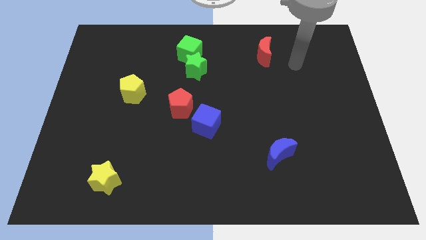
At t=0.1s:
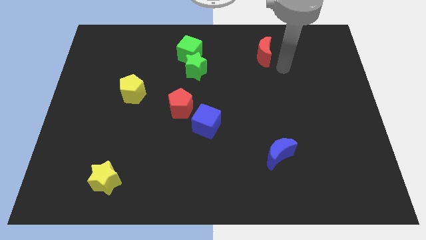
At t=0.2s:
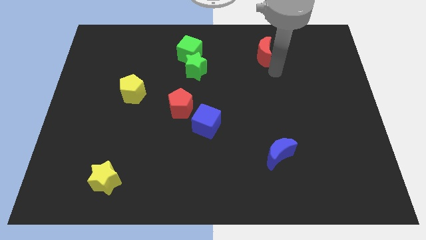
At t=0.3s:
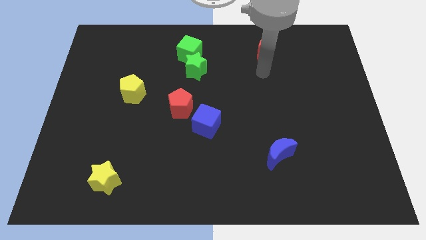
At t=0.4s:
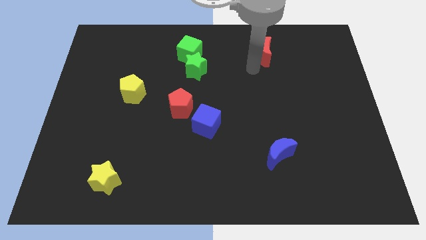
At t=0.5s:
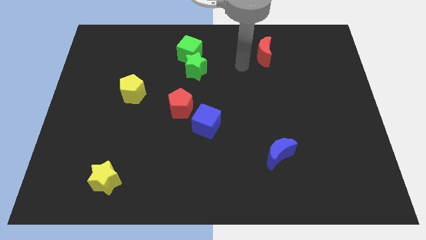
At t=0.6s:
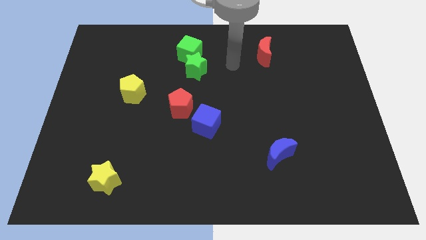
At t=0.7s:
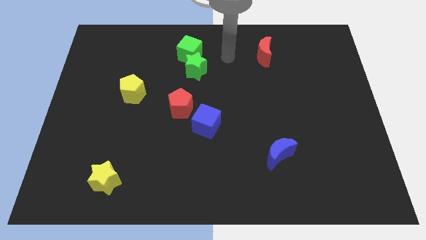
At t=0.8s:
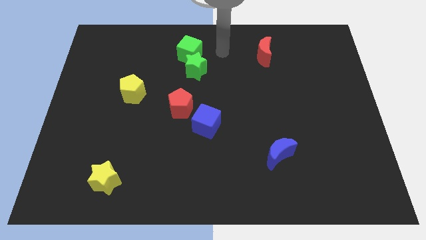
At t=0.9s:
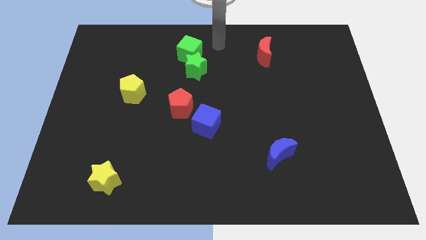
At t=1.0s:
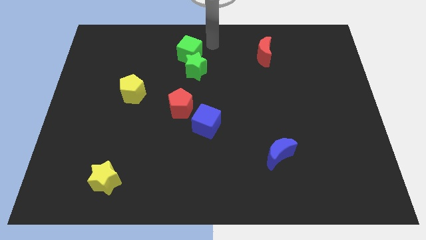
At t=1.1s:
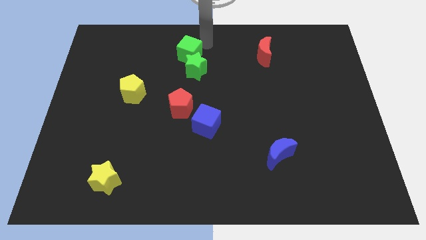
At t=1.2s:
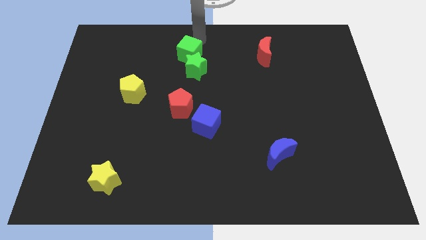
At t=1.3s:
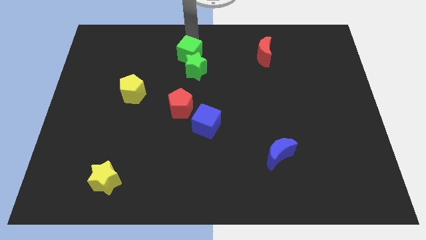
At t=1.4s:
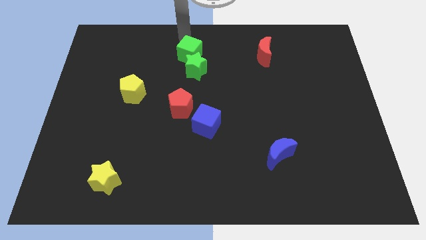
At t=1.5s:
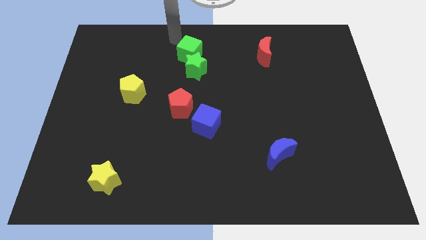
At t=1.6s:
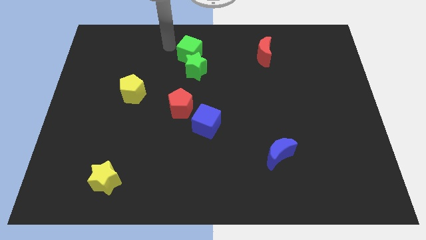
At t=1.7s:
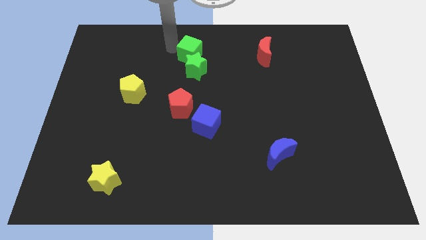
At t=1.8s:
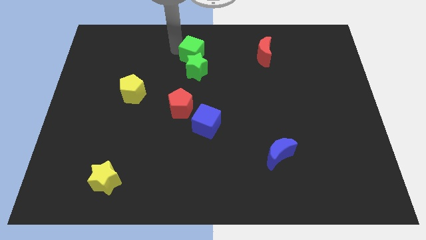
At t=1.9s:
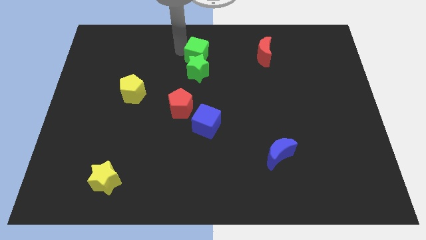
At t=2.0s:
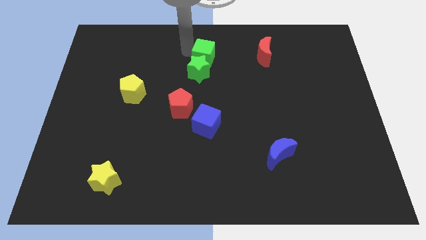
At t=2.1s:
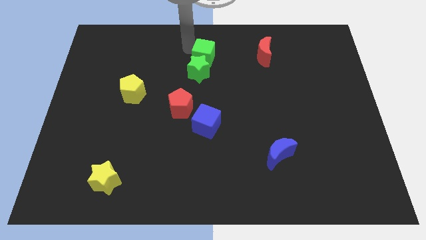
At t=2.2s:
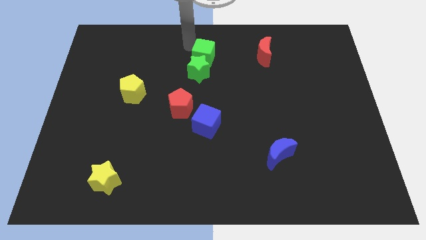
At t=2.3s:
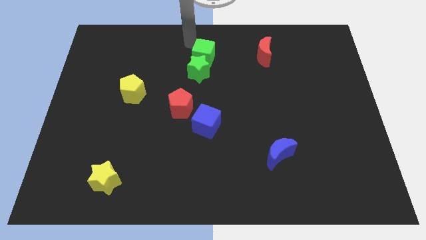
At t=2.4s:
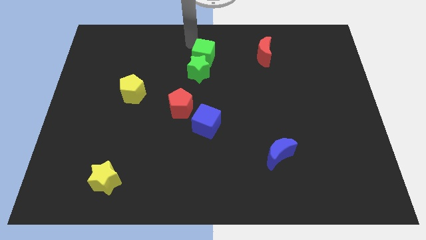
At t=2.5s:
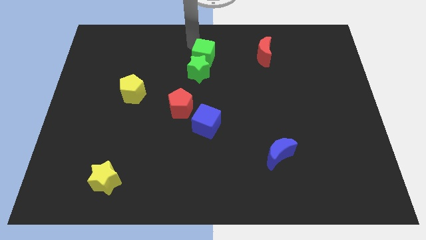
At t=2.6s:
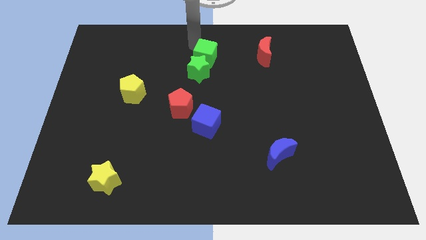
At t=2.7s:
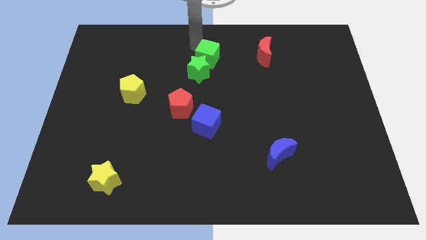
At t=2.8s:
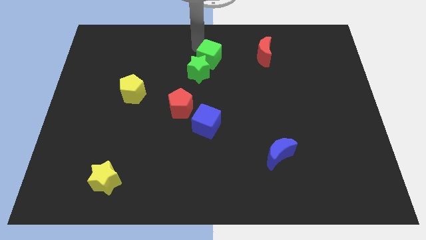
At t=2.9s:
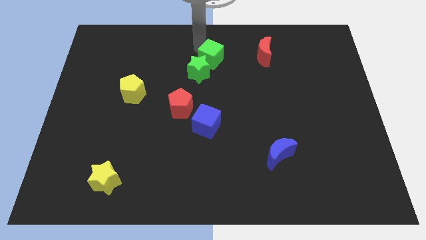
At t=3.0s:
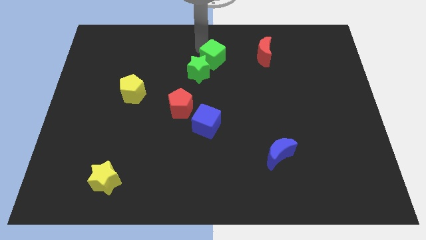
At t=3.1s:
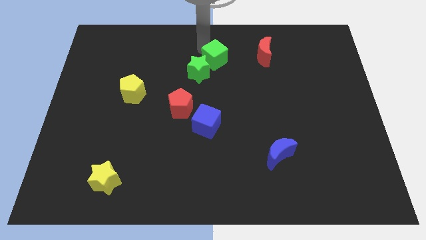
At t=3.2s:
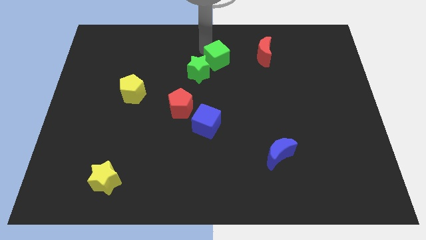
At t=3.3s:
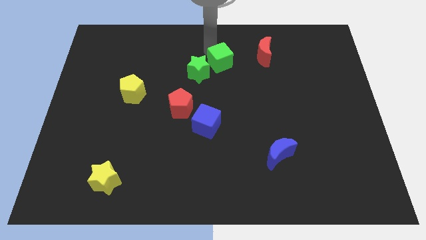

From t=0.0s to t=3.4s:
move the green cube a little downwards and then right

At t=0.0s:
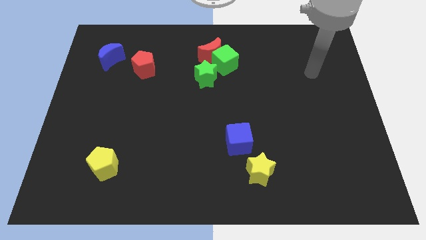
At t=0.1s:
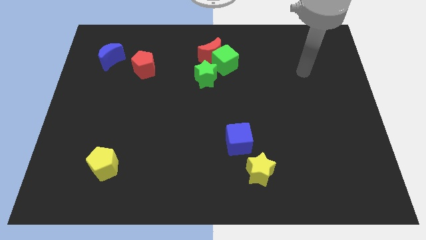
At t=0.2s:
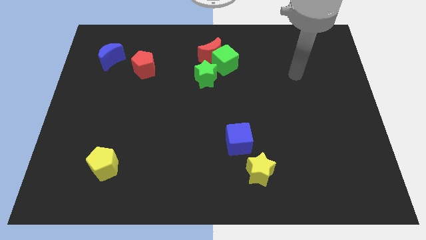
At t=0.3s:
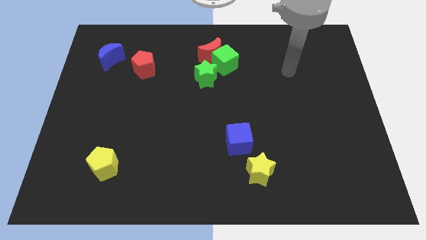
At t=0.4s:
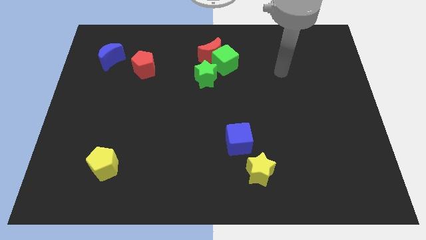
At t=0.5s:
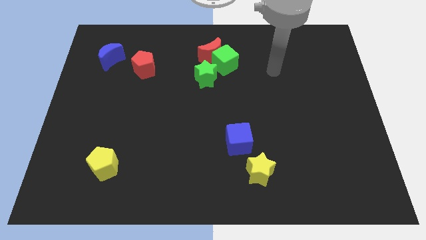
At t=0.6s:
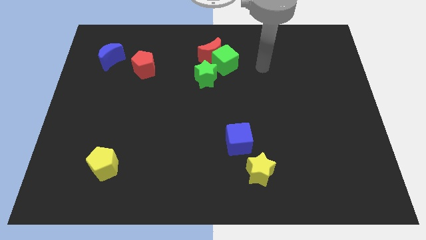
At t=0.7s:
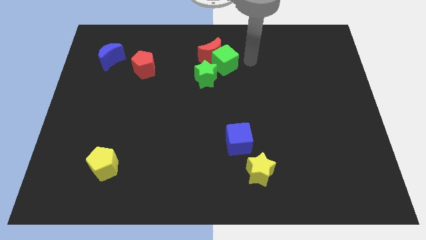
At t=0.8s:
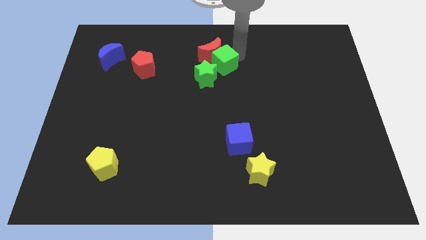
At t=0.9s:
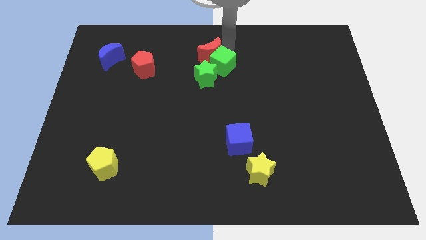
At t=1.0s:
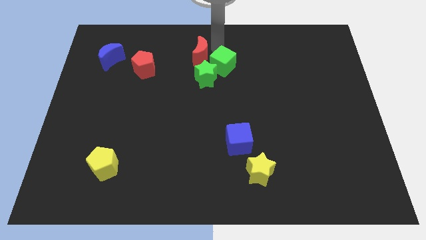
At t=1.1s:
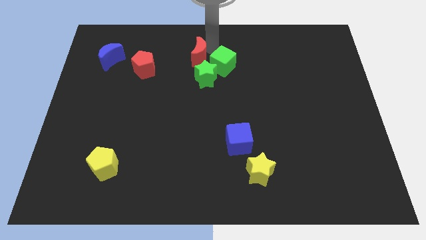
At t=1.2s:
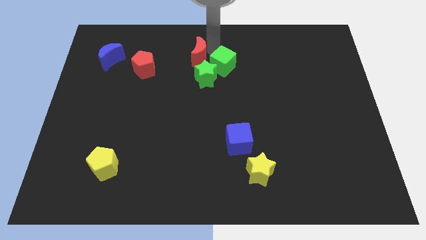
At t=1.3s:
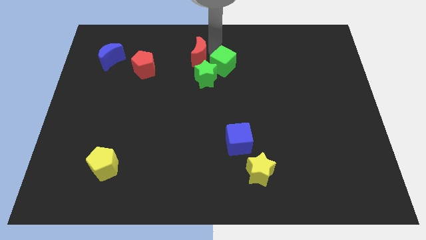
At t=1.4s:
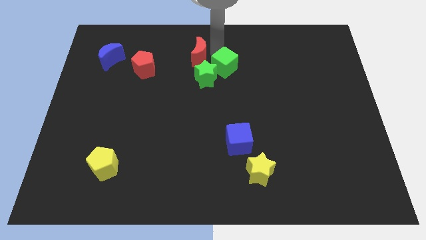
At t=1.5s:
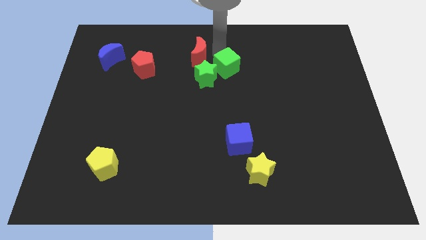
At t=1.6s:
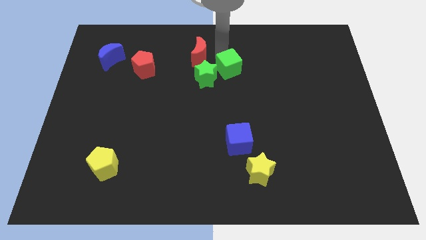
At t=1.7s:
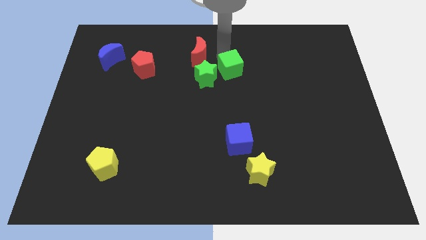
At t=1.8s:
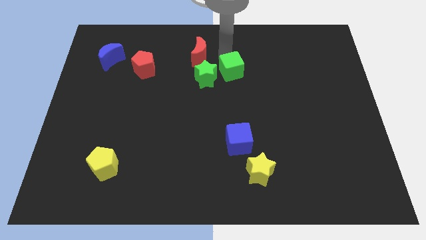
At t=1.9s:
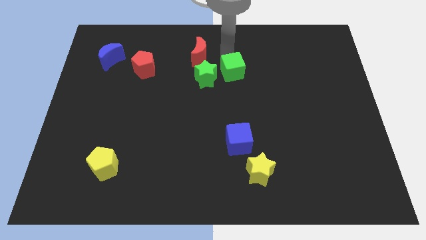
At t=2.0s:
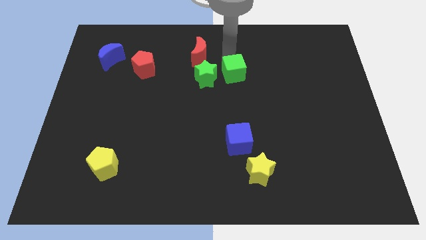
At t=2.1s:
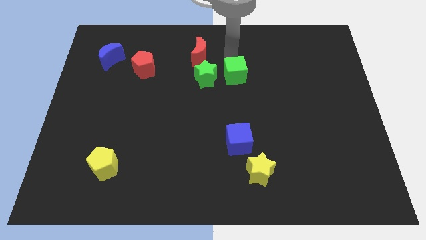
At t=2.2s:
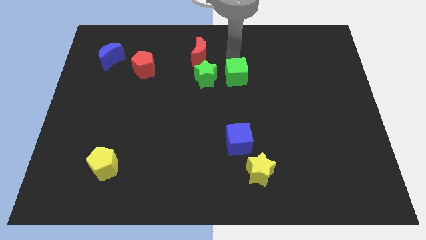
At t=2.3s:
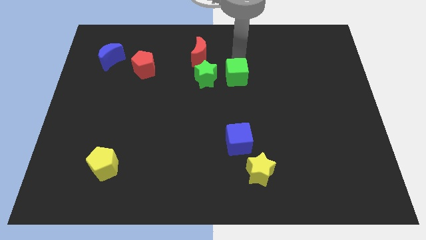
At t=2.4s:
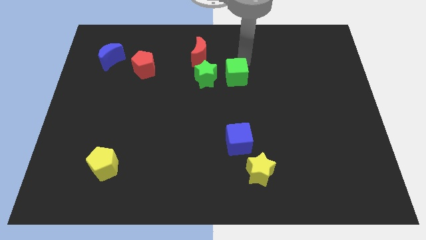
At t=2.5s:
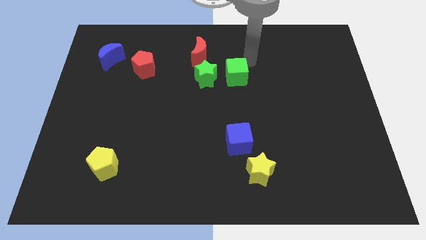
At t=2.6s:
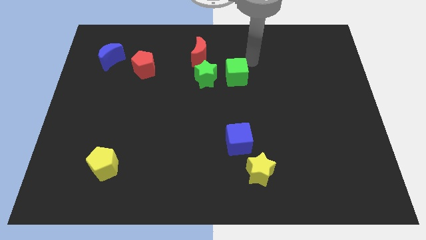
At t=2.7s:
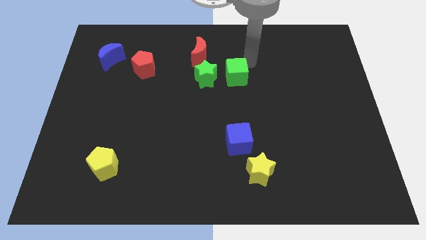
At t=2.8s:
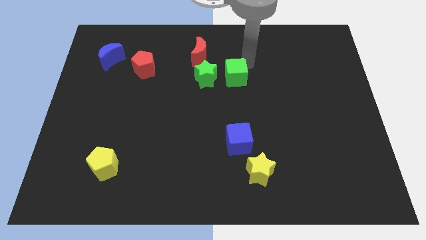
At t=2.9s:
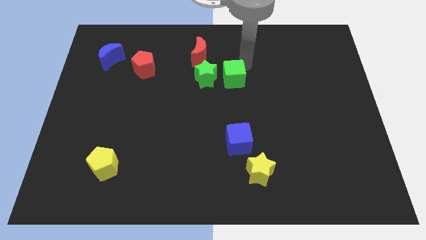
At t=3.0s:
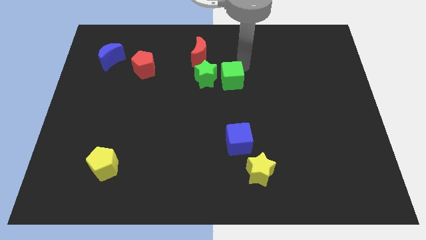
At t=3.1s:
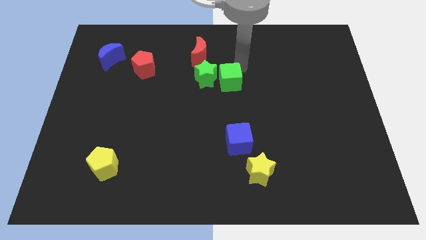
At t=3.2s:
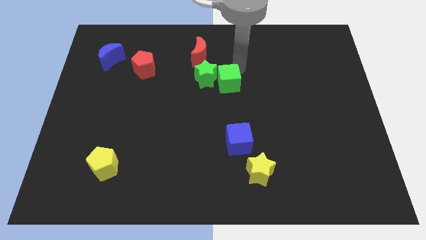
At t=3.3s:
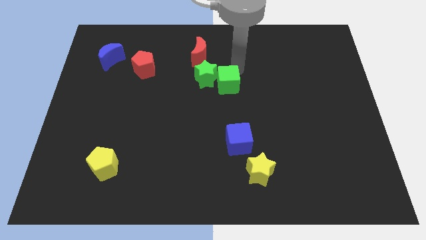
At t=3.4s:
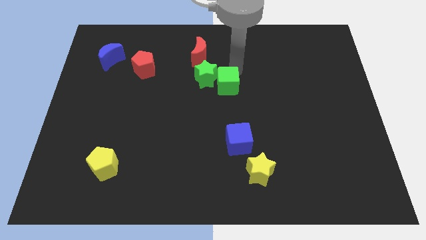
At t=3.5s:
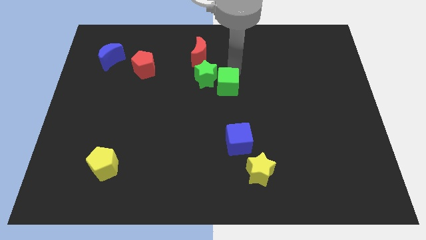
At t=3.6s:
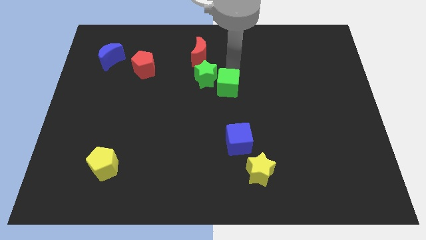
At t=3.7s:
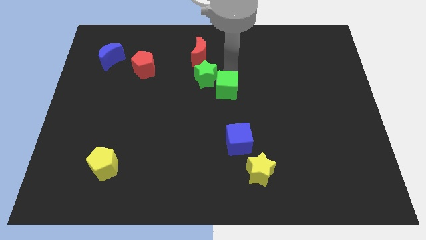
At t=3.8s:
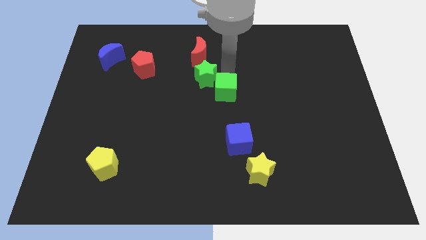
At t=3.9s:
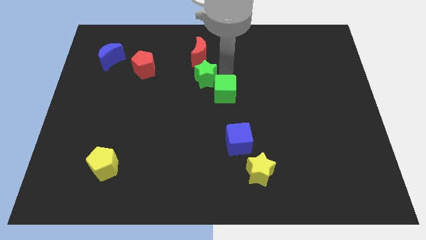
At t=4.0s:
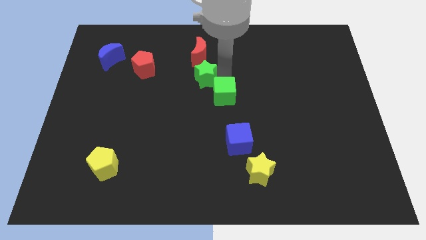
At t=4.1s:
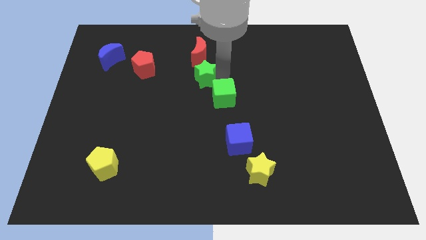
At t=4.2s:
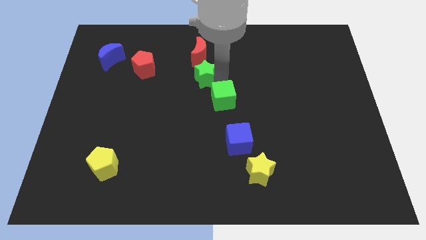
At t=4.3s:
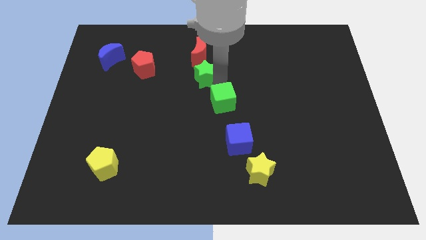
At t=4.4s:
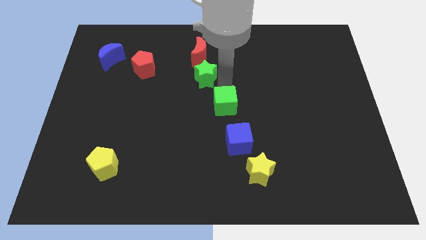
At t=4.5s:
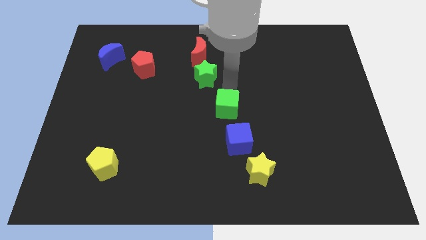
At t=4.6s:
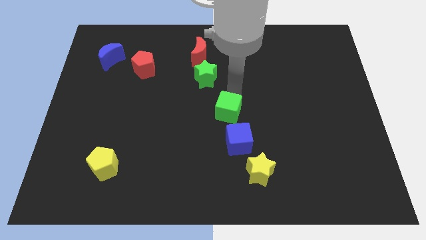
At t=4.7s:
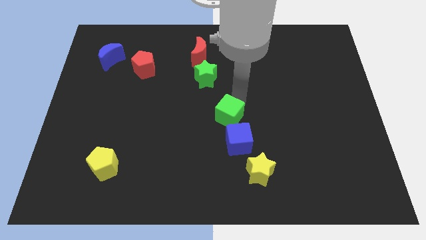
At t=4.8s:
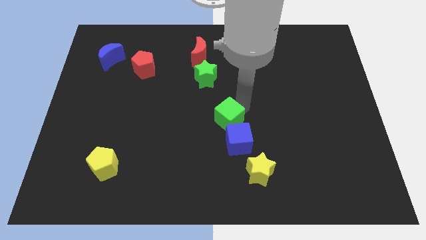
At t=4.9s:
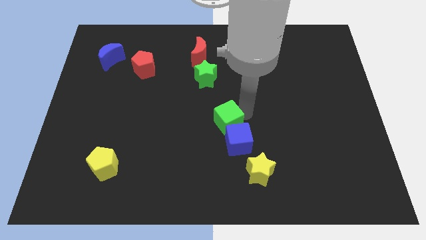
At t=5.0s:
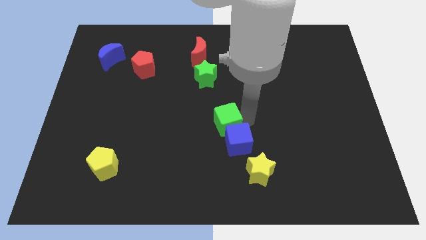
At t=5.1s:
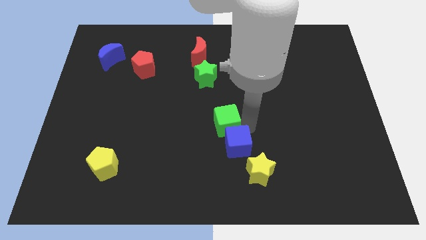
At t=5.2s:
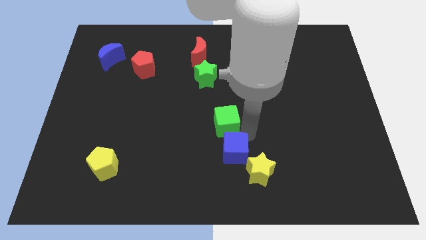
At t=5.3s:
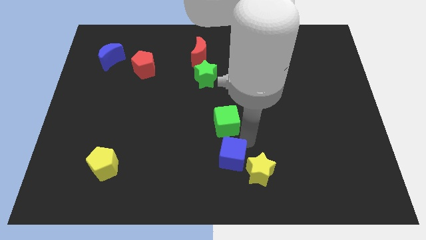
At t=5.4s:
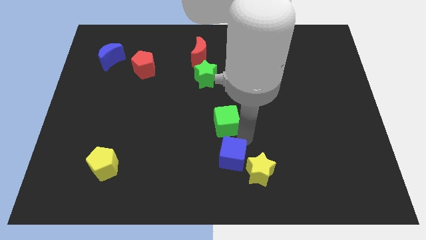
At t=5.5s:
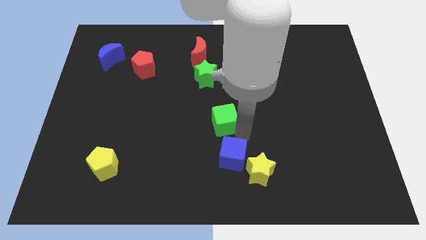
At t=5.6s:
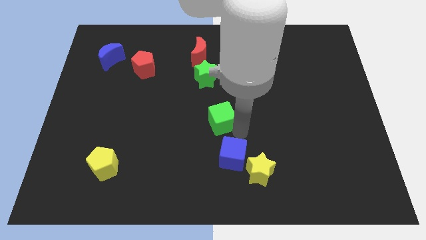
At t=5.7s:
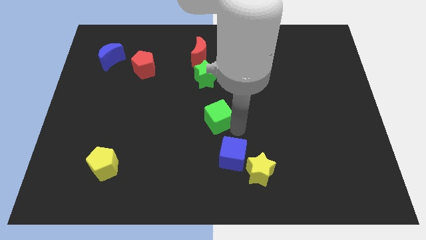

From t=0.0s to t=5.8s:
slightly slide the green cube down and to the left
